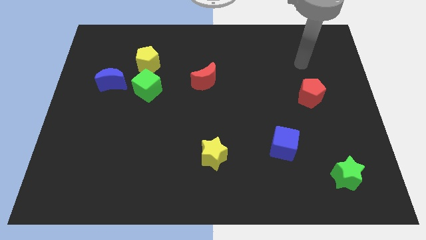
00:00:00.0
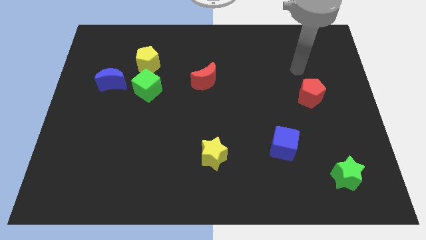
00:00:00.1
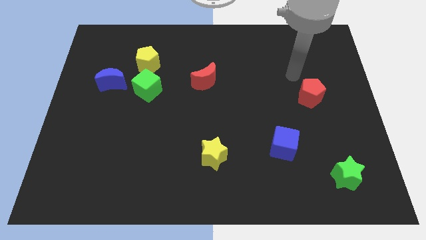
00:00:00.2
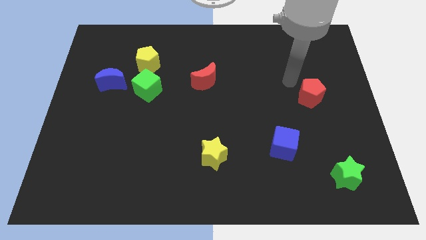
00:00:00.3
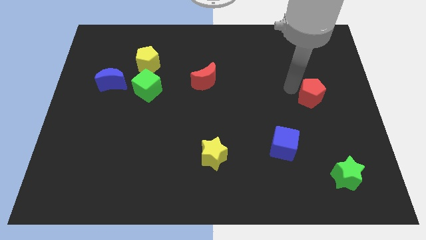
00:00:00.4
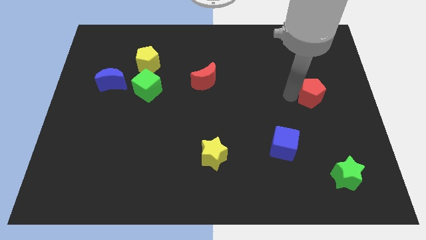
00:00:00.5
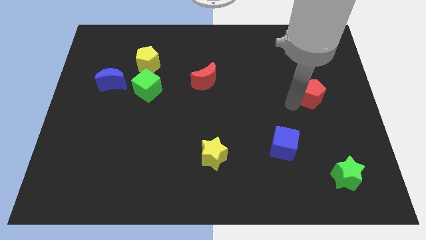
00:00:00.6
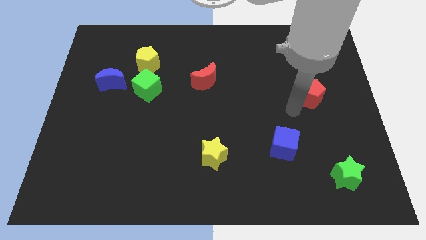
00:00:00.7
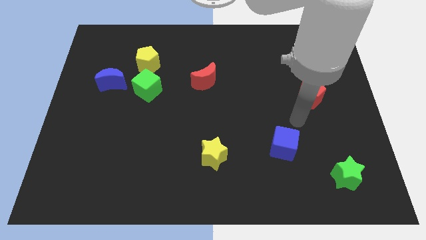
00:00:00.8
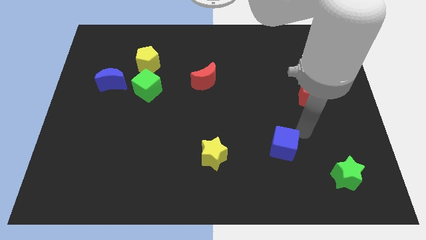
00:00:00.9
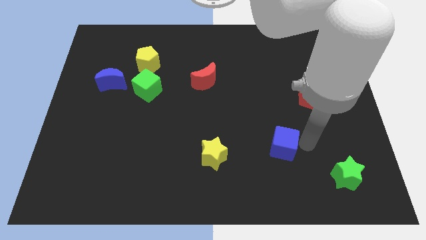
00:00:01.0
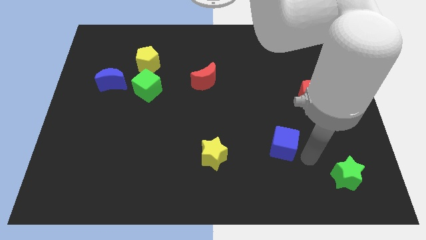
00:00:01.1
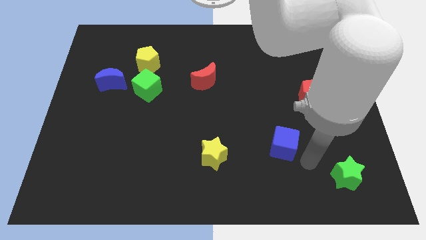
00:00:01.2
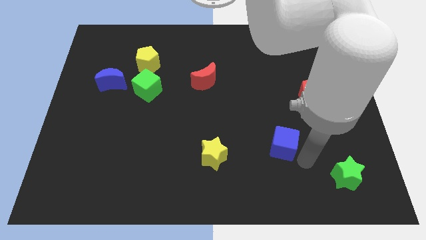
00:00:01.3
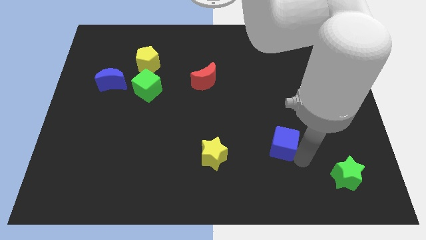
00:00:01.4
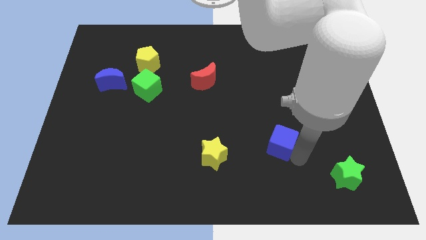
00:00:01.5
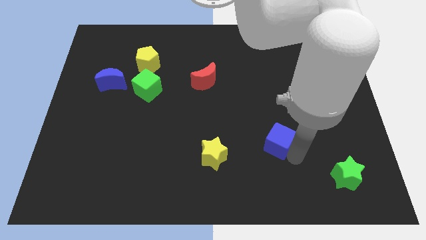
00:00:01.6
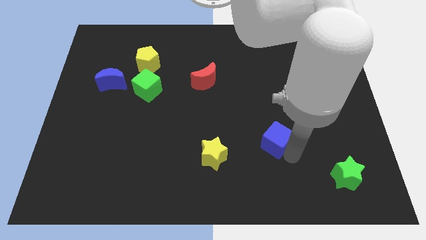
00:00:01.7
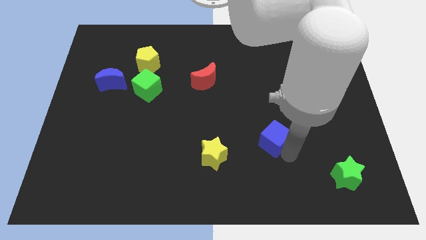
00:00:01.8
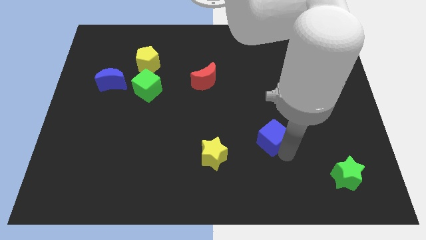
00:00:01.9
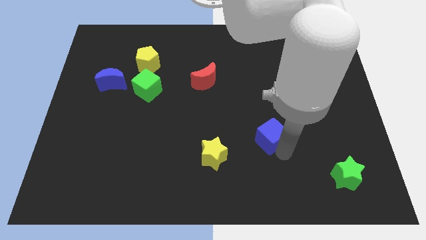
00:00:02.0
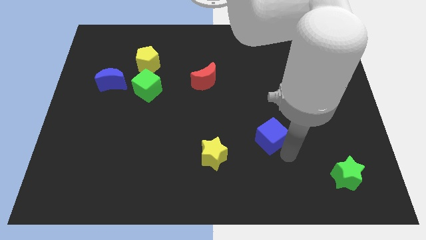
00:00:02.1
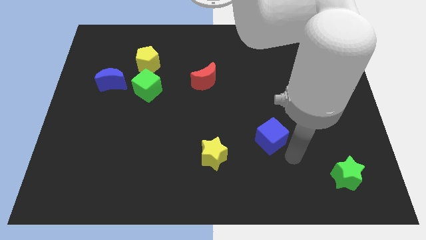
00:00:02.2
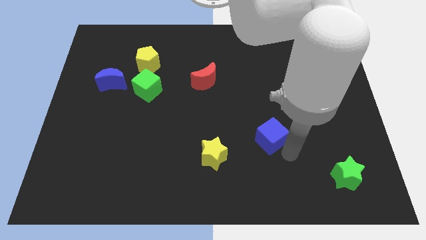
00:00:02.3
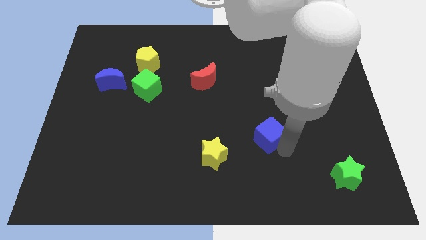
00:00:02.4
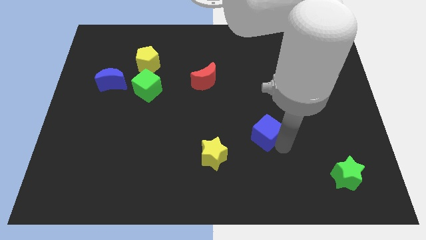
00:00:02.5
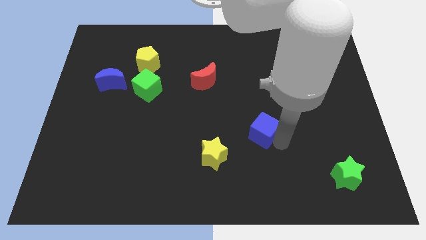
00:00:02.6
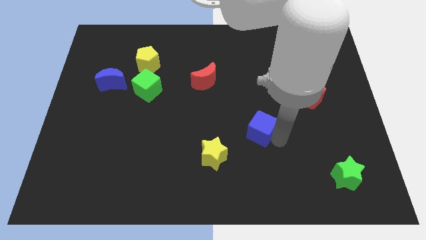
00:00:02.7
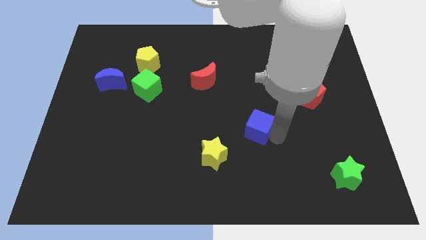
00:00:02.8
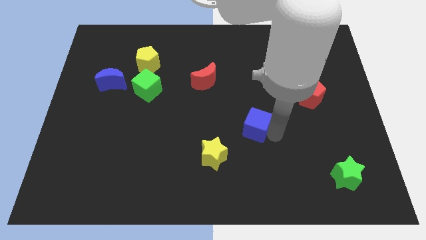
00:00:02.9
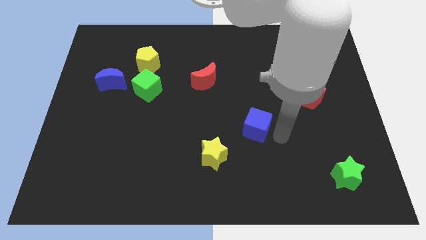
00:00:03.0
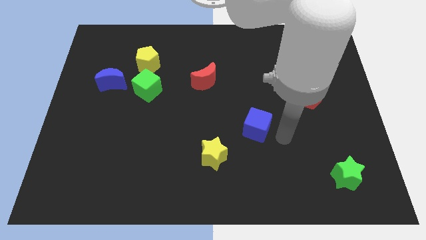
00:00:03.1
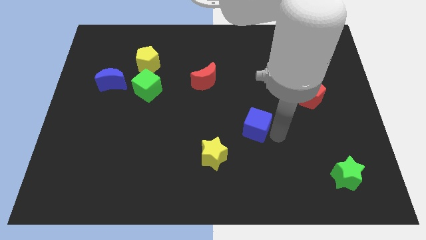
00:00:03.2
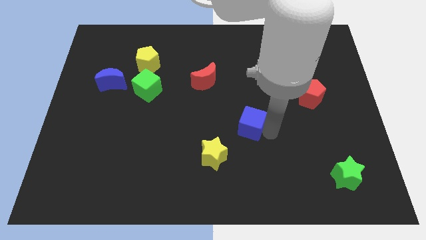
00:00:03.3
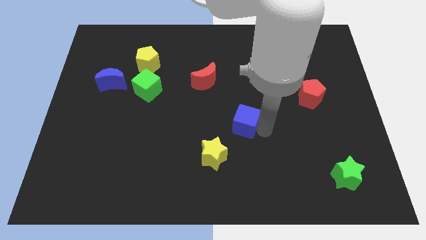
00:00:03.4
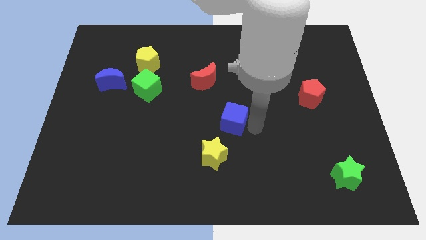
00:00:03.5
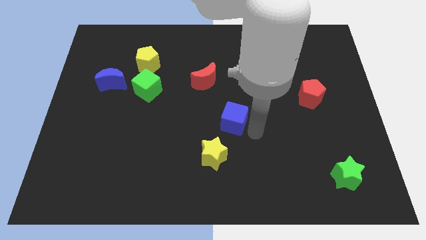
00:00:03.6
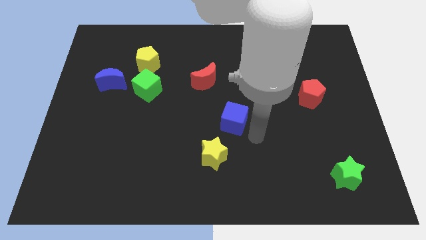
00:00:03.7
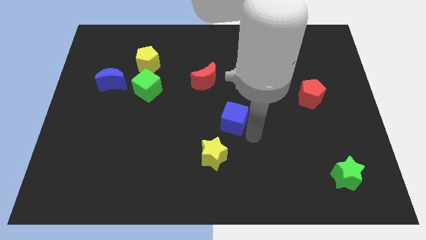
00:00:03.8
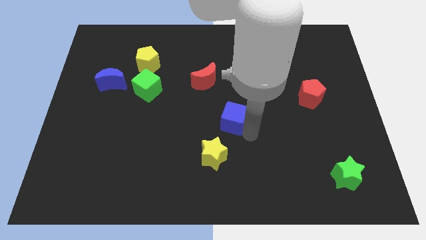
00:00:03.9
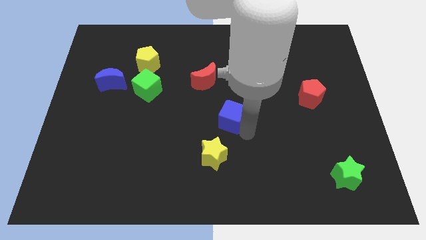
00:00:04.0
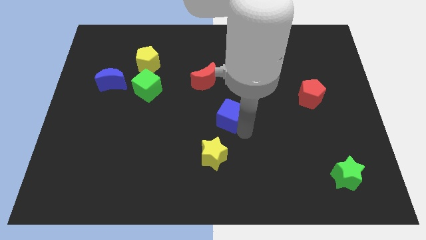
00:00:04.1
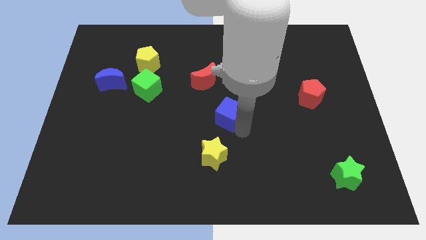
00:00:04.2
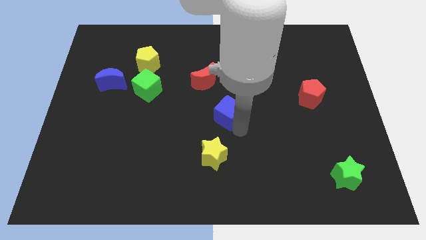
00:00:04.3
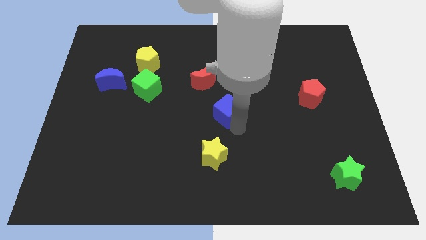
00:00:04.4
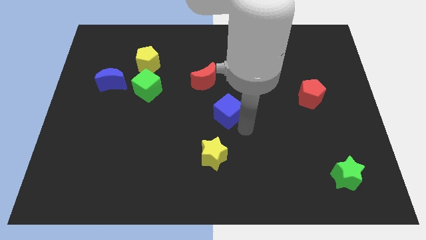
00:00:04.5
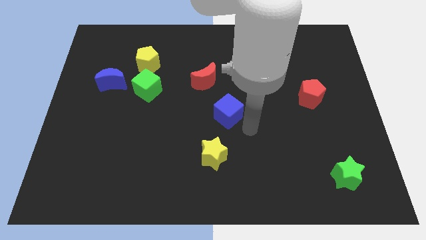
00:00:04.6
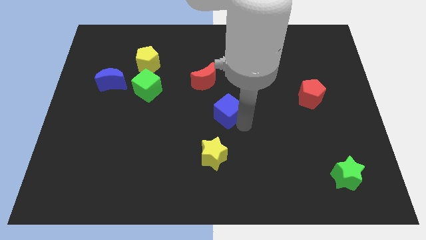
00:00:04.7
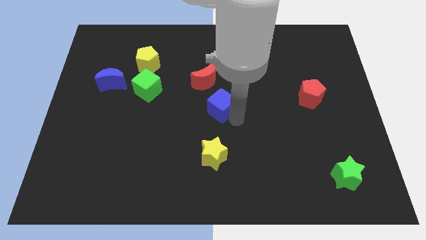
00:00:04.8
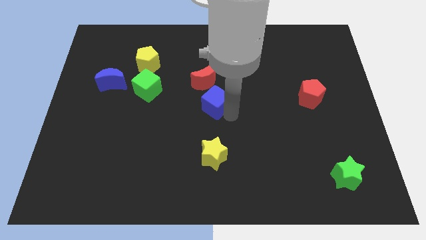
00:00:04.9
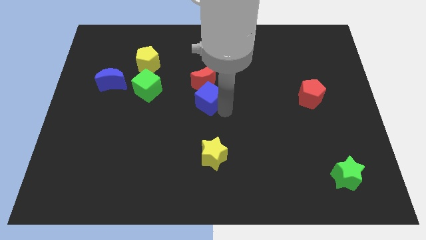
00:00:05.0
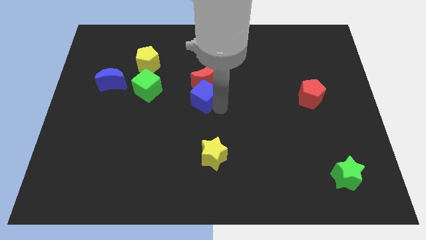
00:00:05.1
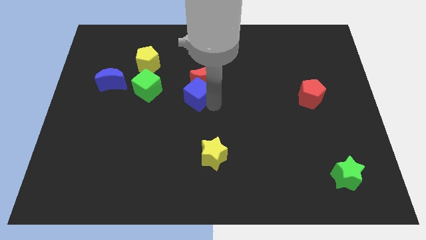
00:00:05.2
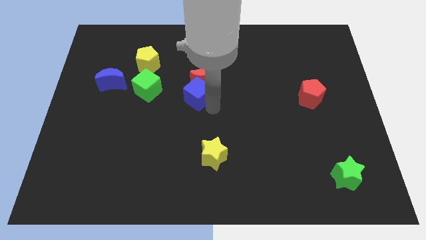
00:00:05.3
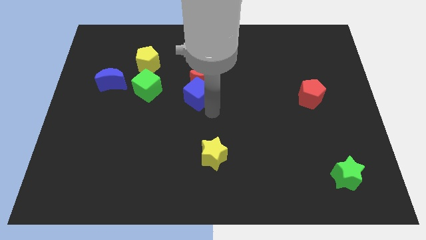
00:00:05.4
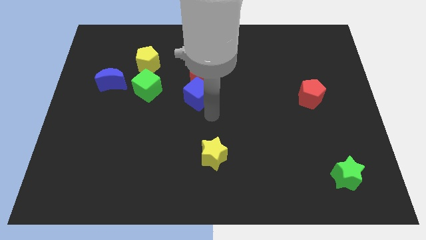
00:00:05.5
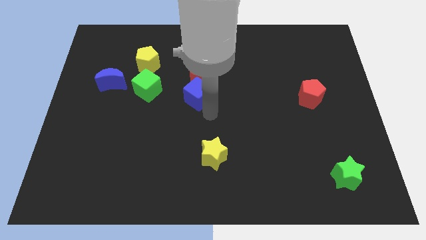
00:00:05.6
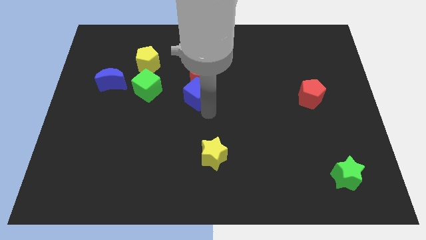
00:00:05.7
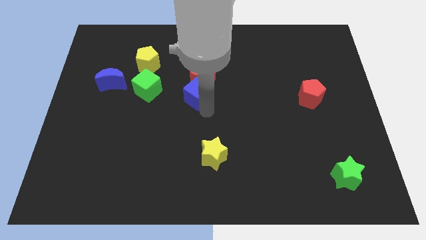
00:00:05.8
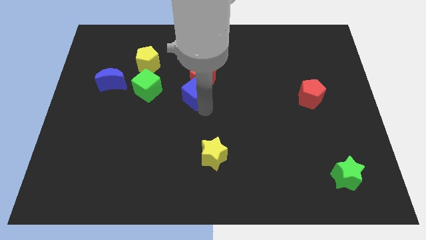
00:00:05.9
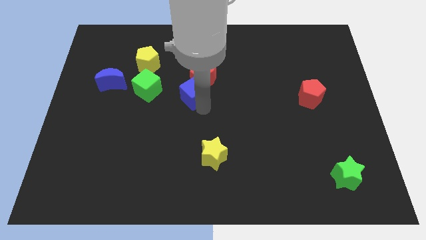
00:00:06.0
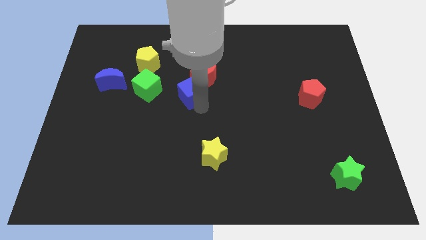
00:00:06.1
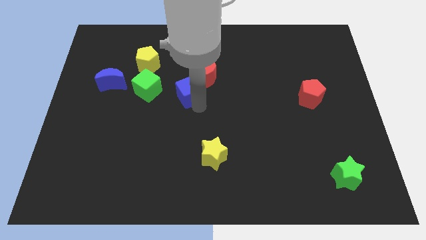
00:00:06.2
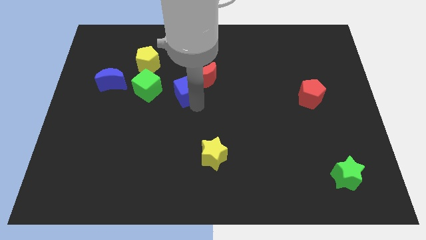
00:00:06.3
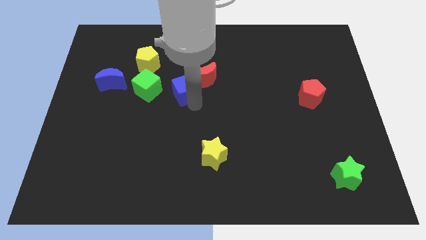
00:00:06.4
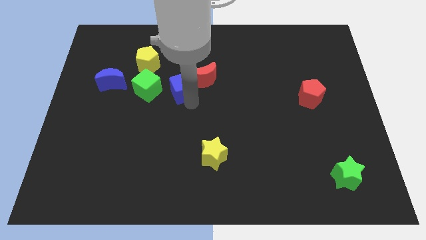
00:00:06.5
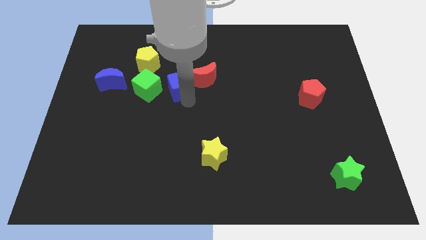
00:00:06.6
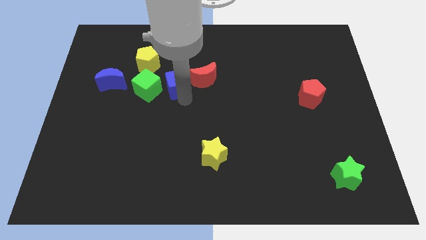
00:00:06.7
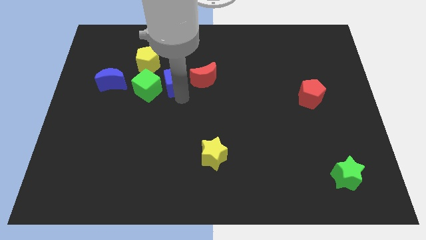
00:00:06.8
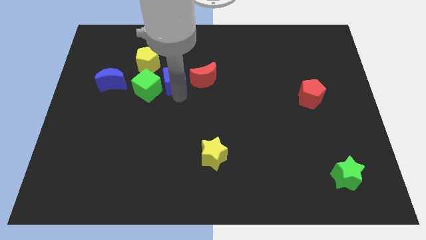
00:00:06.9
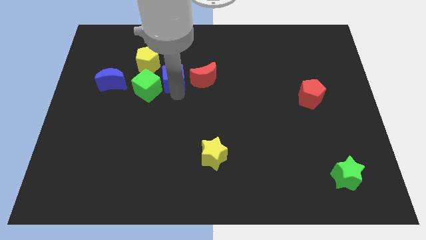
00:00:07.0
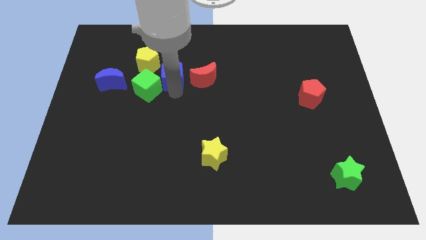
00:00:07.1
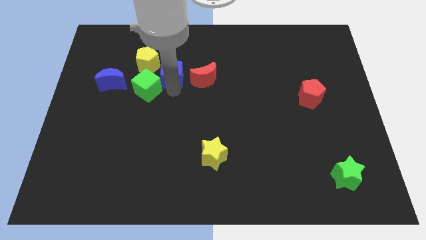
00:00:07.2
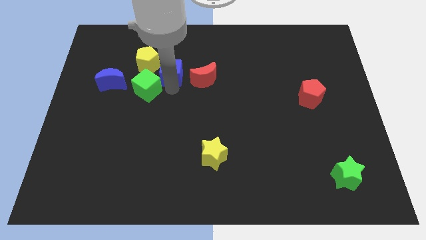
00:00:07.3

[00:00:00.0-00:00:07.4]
move the blue cube to the top left side of the red moon
